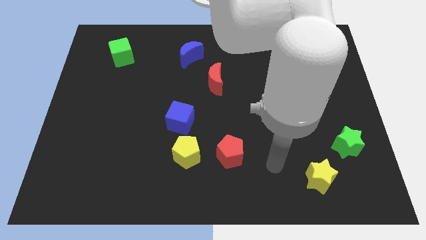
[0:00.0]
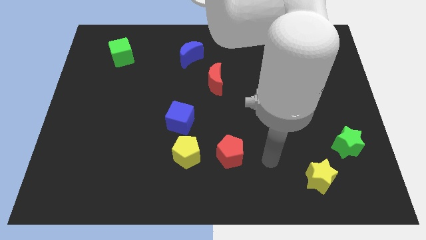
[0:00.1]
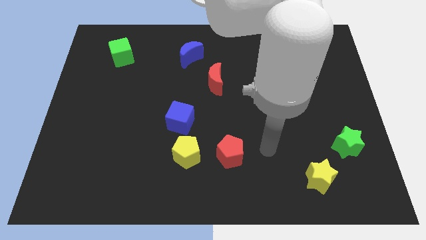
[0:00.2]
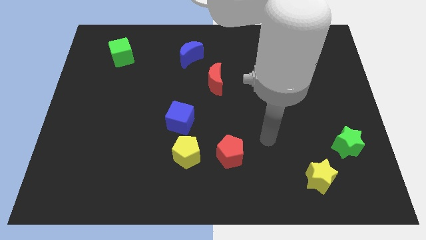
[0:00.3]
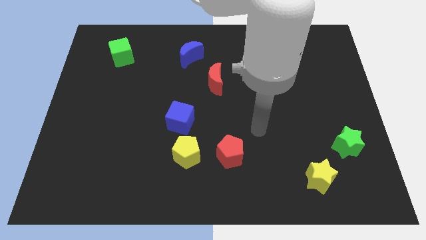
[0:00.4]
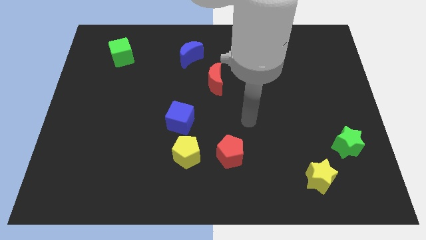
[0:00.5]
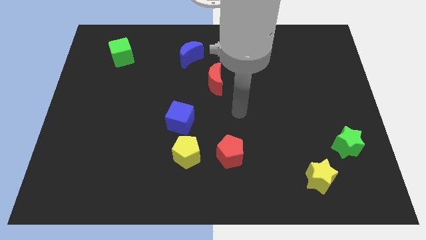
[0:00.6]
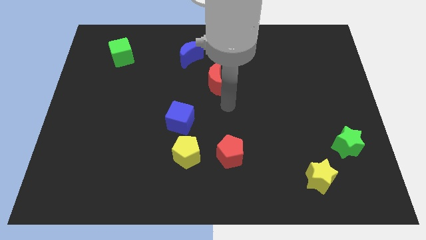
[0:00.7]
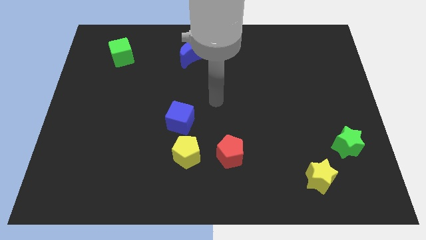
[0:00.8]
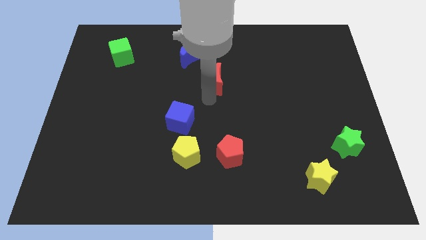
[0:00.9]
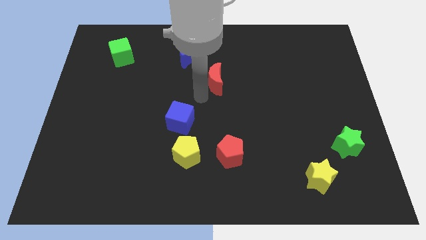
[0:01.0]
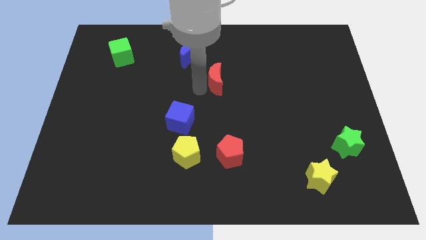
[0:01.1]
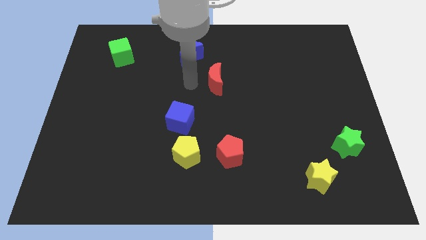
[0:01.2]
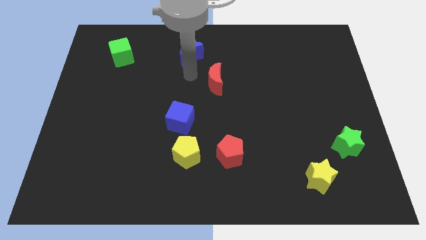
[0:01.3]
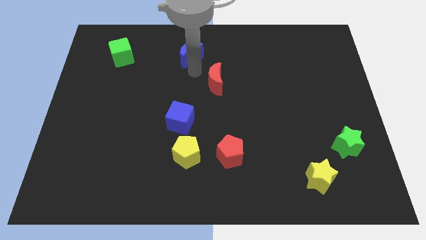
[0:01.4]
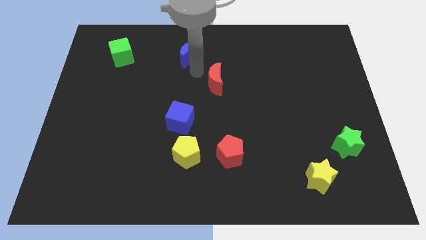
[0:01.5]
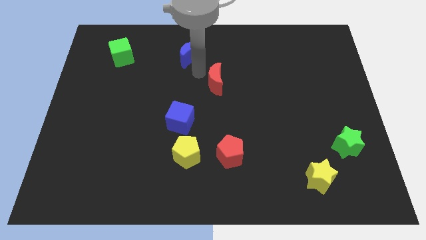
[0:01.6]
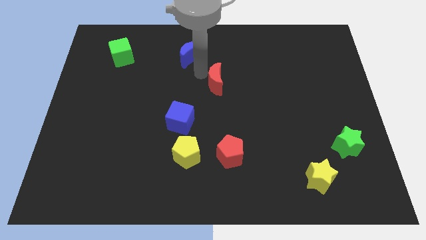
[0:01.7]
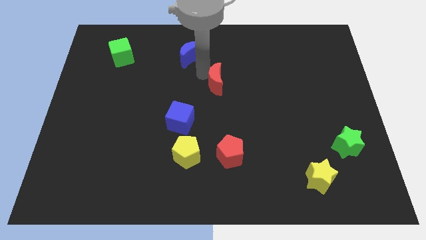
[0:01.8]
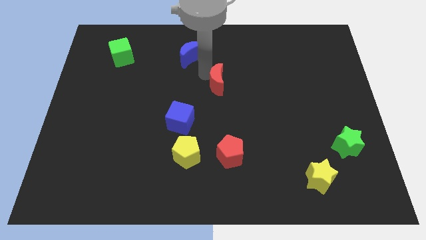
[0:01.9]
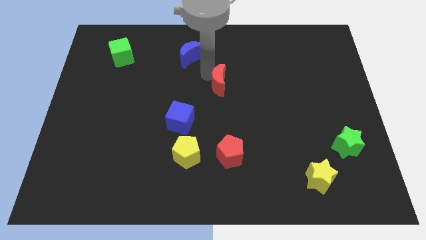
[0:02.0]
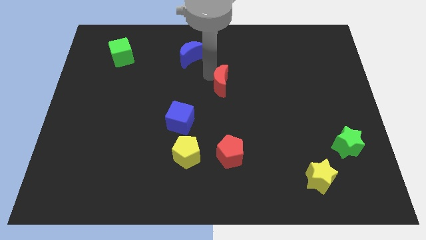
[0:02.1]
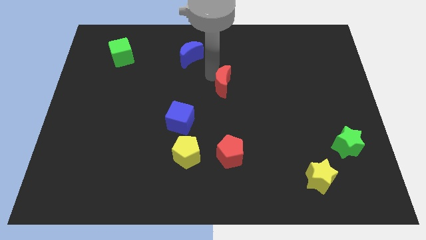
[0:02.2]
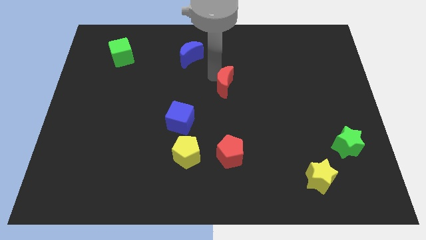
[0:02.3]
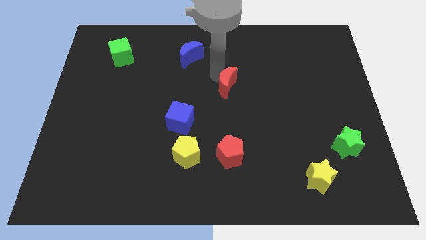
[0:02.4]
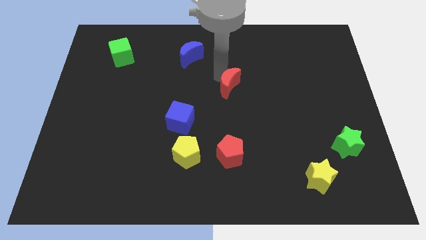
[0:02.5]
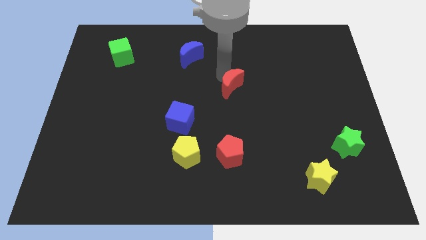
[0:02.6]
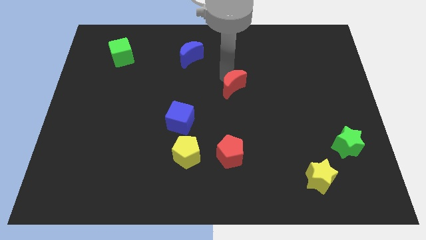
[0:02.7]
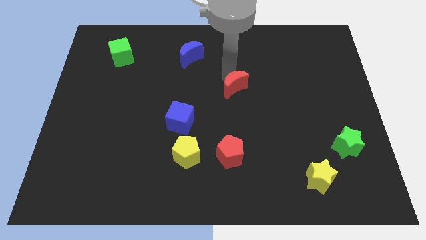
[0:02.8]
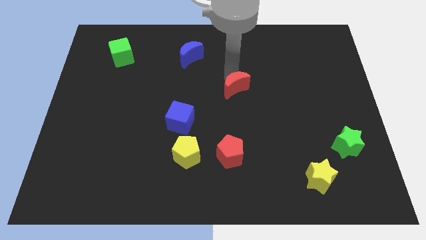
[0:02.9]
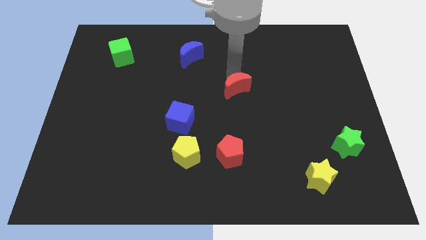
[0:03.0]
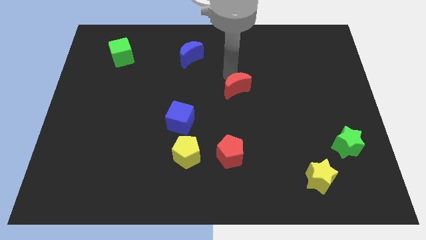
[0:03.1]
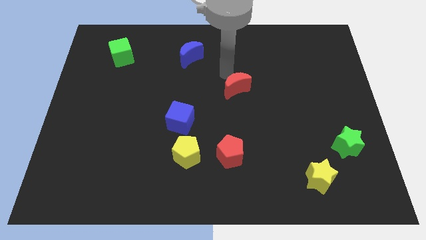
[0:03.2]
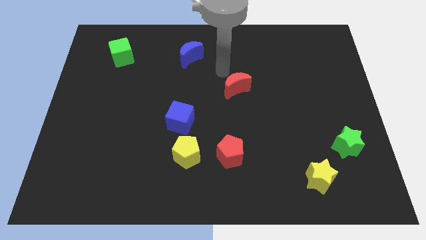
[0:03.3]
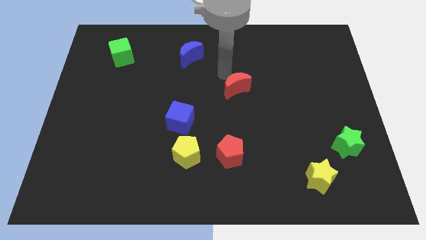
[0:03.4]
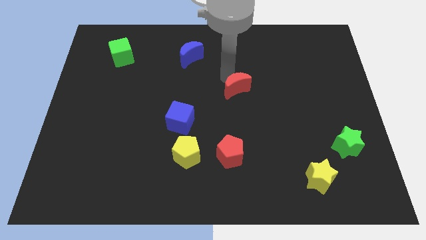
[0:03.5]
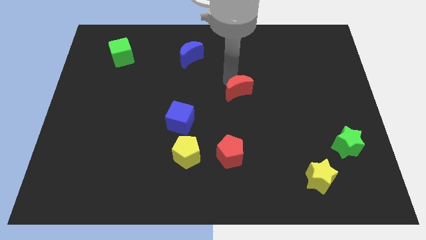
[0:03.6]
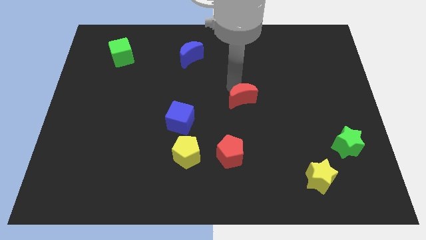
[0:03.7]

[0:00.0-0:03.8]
move the red moon a little down and right

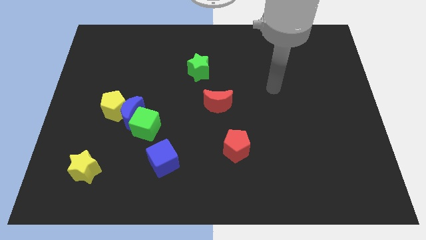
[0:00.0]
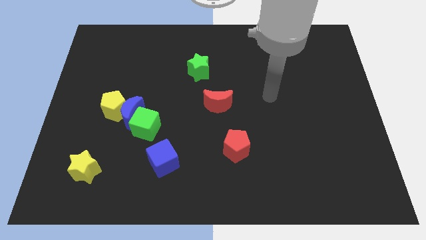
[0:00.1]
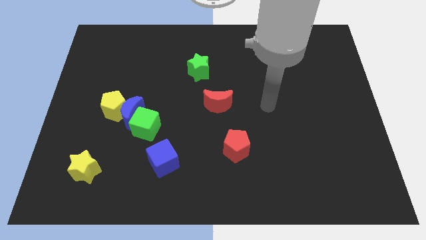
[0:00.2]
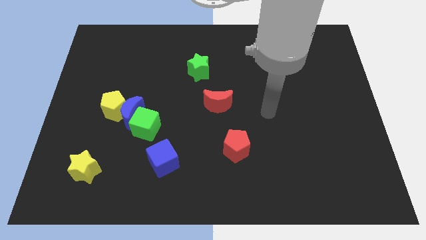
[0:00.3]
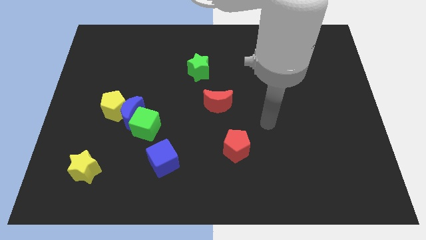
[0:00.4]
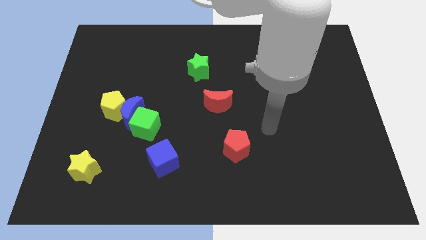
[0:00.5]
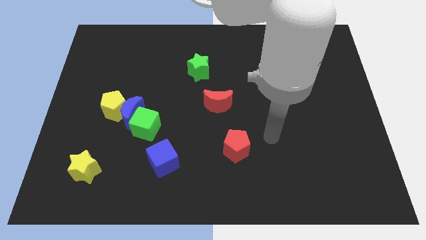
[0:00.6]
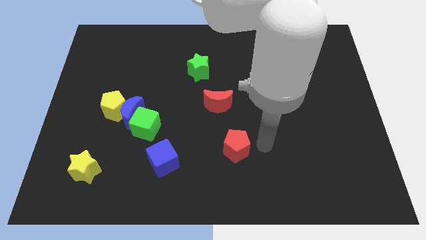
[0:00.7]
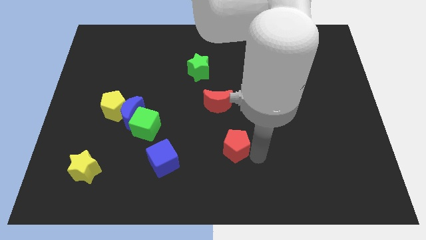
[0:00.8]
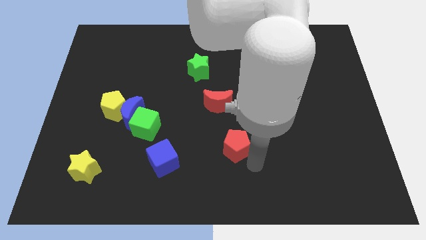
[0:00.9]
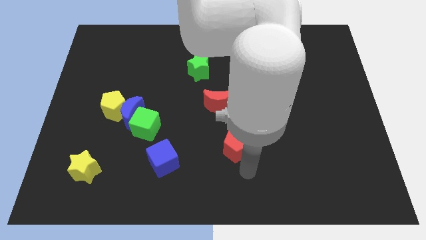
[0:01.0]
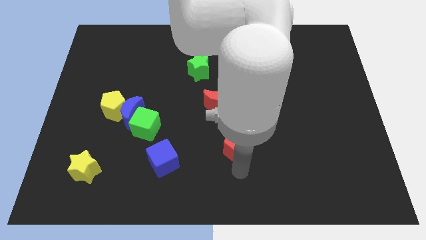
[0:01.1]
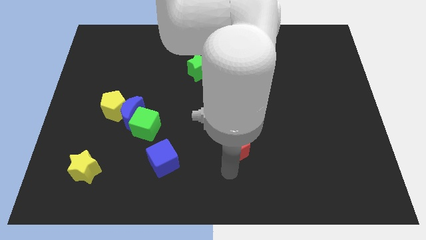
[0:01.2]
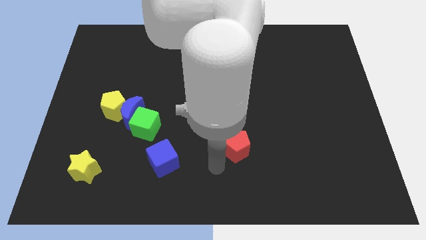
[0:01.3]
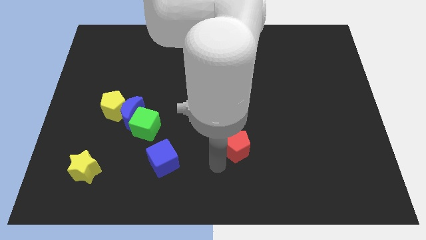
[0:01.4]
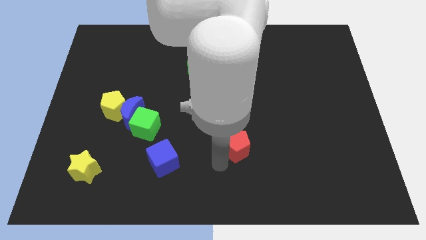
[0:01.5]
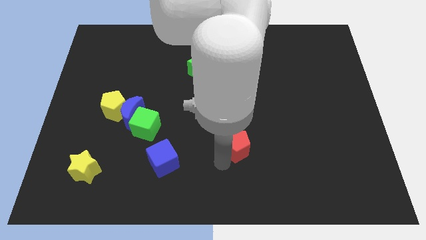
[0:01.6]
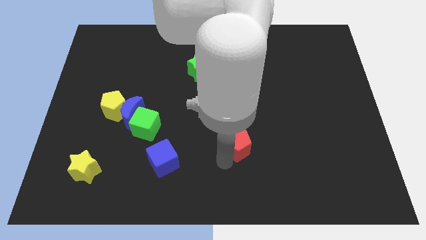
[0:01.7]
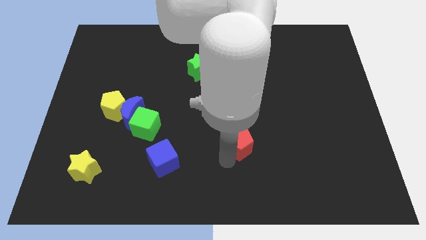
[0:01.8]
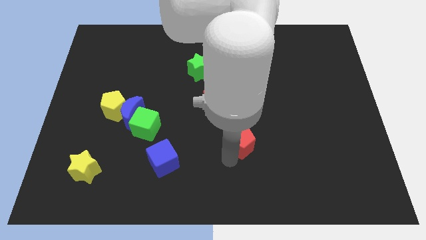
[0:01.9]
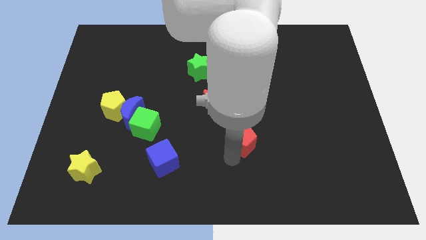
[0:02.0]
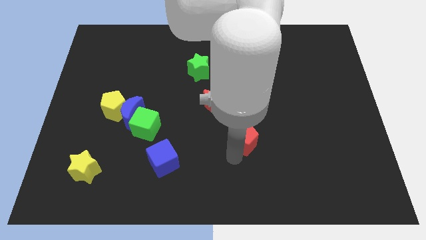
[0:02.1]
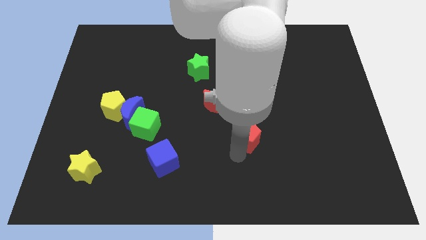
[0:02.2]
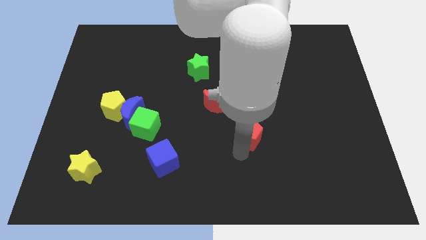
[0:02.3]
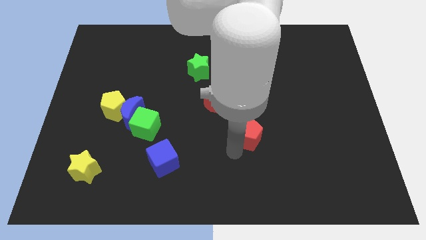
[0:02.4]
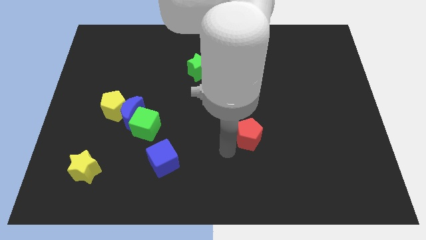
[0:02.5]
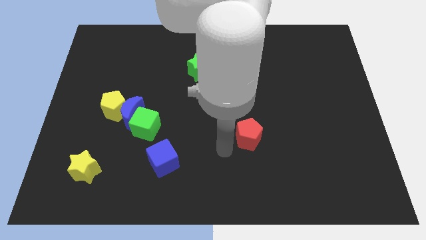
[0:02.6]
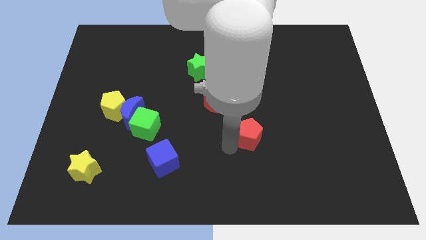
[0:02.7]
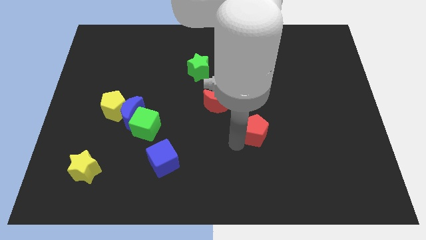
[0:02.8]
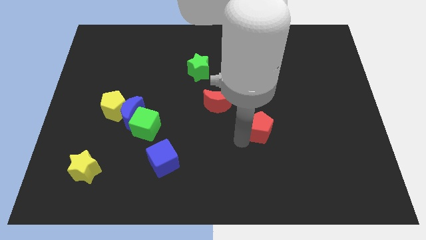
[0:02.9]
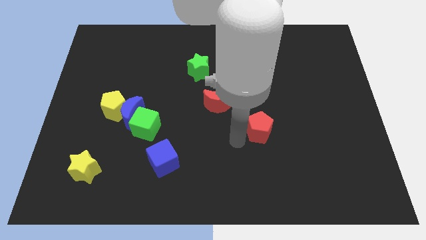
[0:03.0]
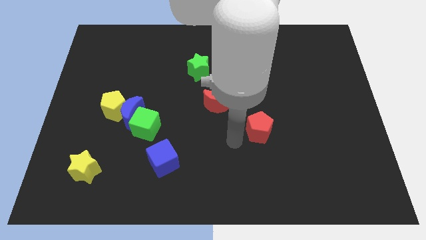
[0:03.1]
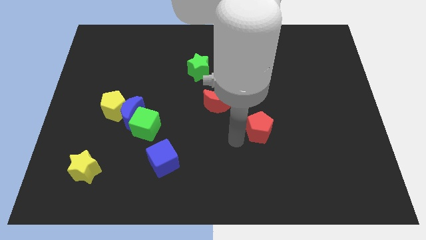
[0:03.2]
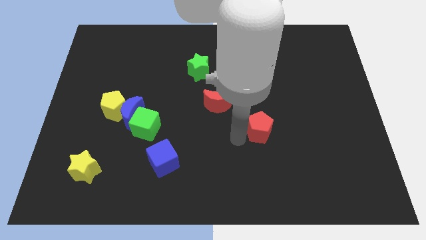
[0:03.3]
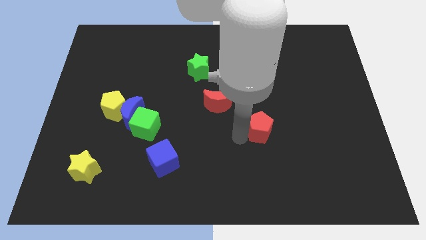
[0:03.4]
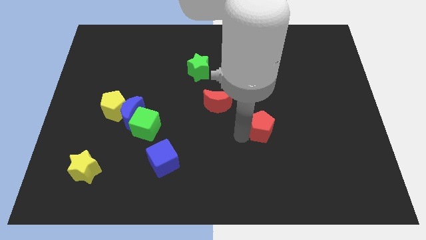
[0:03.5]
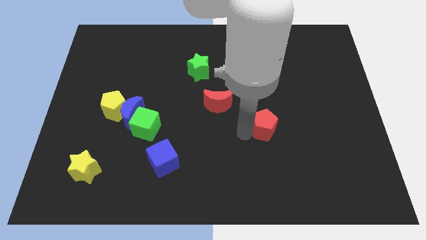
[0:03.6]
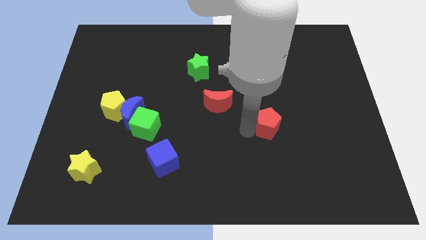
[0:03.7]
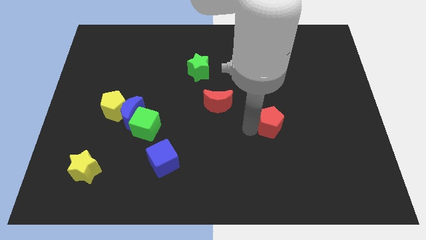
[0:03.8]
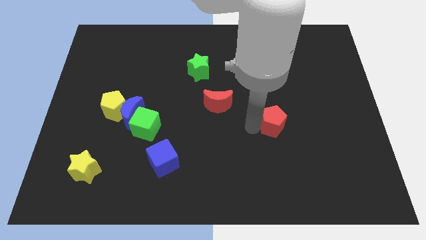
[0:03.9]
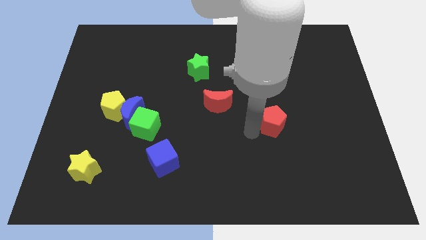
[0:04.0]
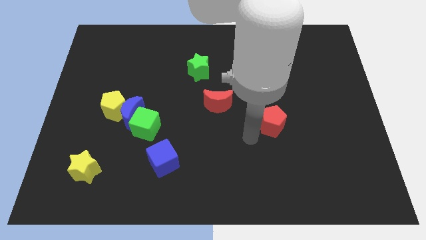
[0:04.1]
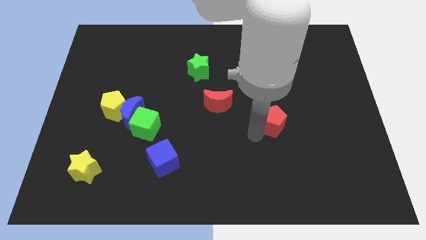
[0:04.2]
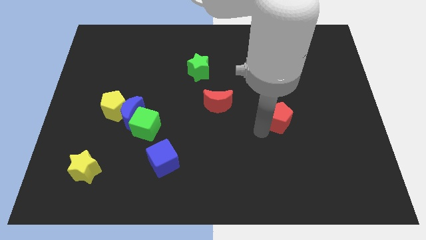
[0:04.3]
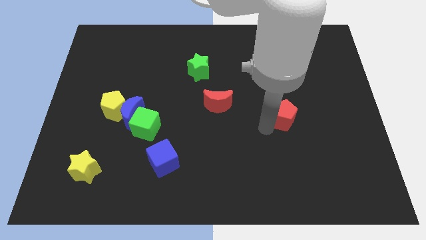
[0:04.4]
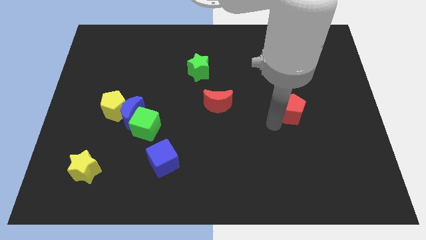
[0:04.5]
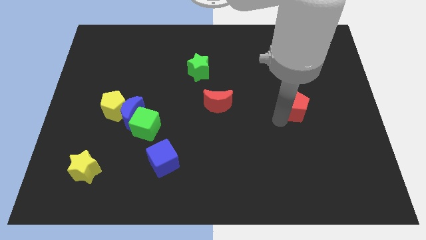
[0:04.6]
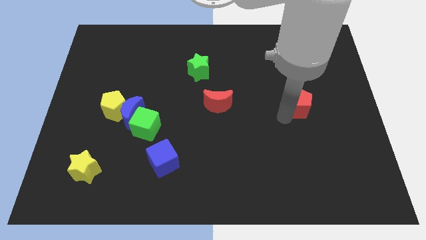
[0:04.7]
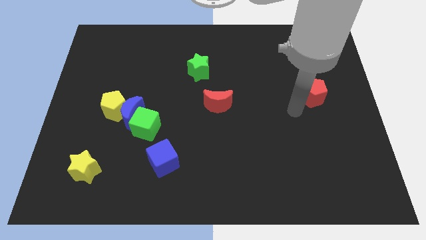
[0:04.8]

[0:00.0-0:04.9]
push the red pentagon up and then to the right
